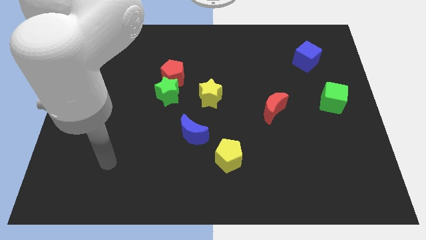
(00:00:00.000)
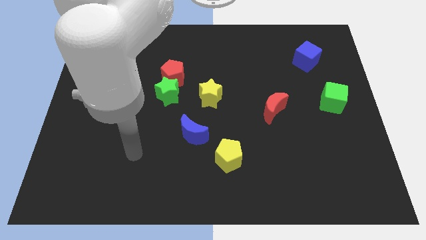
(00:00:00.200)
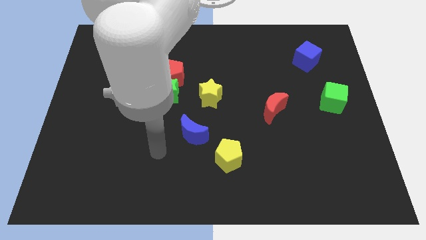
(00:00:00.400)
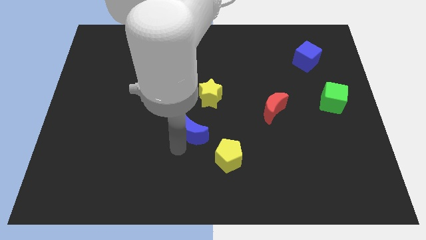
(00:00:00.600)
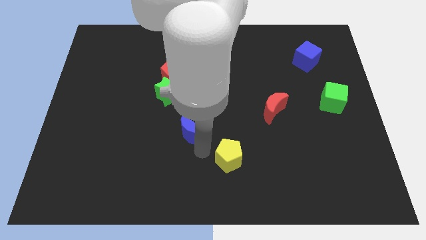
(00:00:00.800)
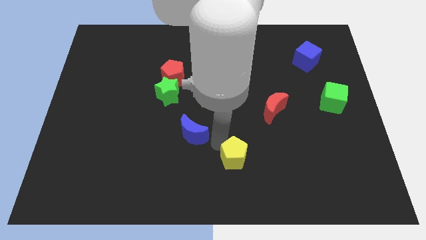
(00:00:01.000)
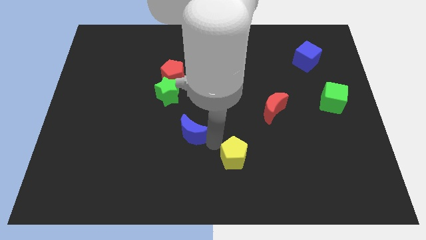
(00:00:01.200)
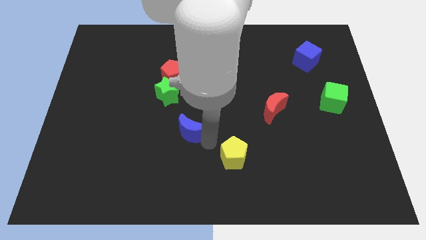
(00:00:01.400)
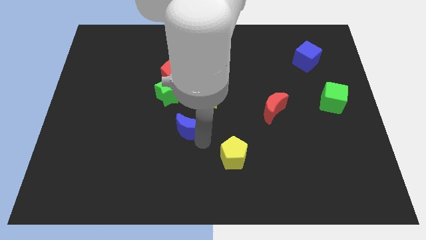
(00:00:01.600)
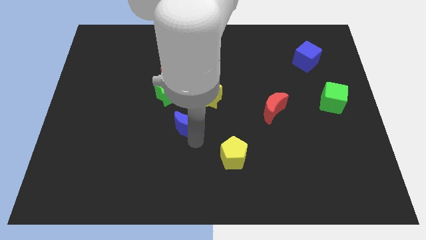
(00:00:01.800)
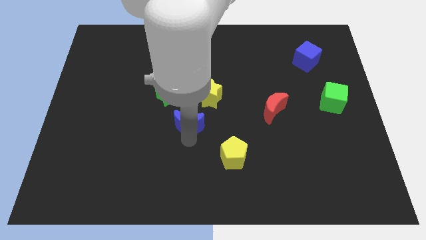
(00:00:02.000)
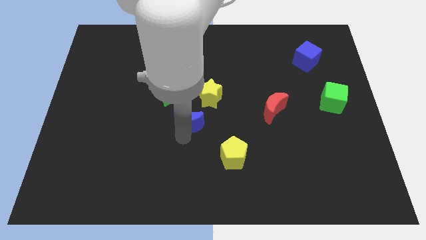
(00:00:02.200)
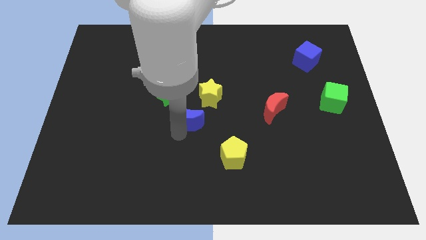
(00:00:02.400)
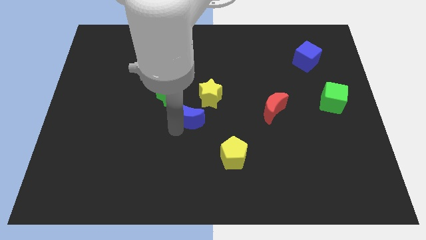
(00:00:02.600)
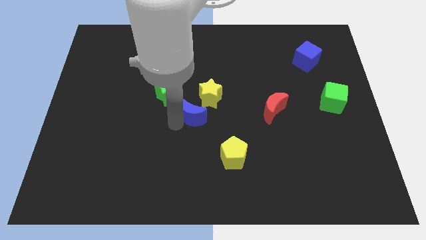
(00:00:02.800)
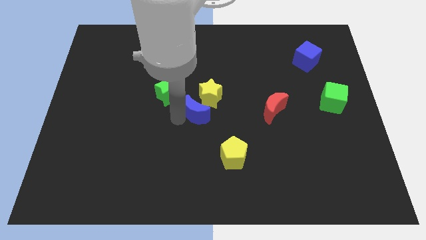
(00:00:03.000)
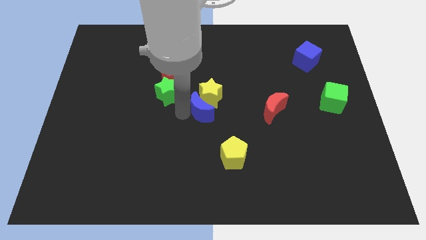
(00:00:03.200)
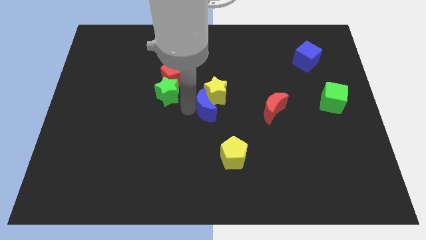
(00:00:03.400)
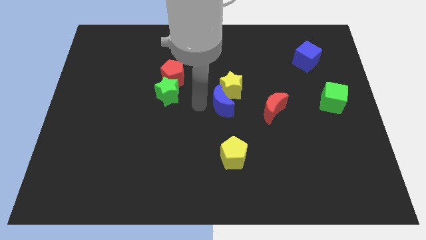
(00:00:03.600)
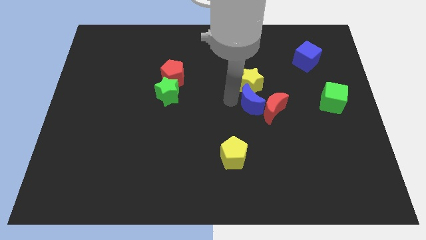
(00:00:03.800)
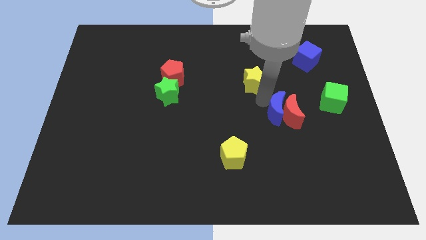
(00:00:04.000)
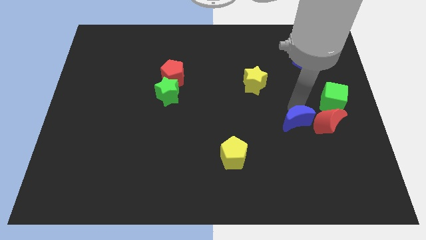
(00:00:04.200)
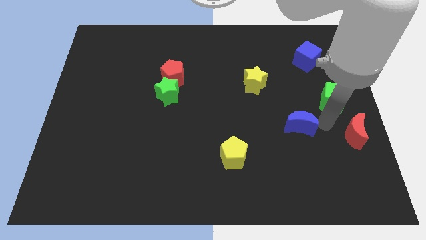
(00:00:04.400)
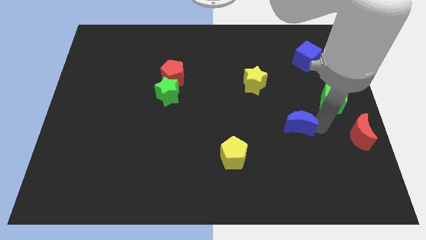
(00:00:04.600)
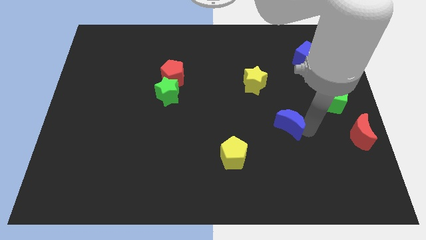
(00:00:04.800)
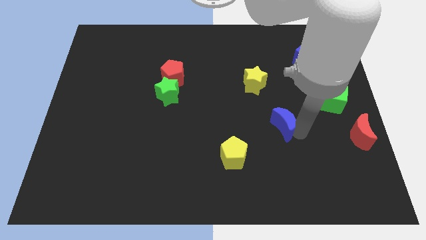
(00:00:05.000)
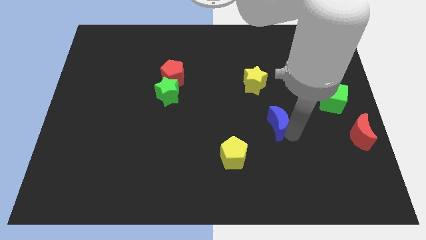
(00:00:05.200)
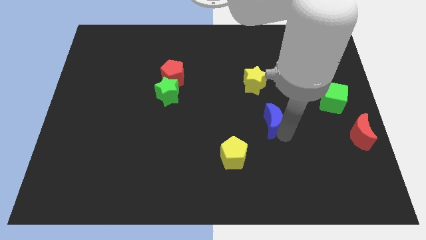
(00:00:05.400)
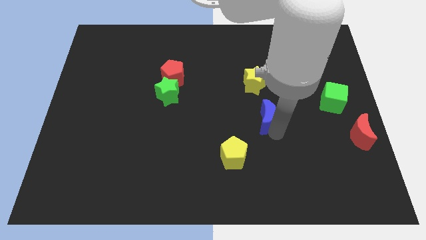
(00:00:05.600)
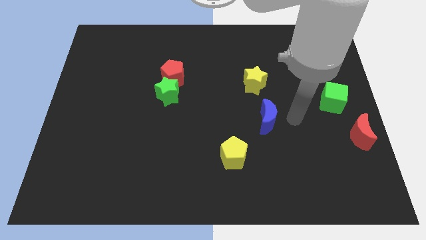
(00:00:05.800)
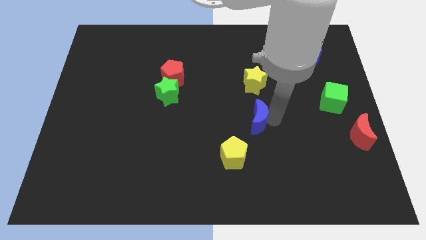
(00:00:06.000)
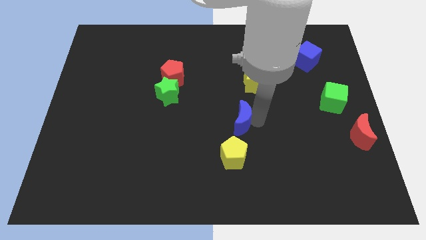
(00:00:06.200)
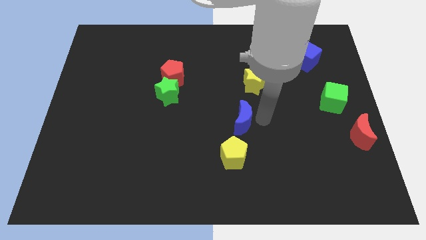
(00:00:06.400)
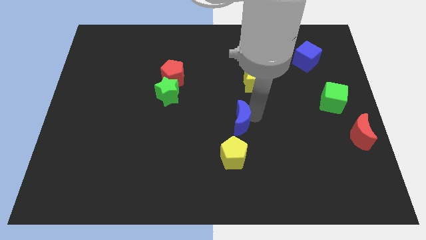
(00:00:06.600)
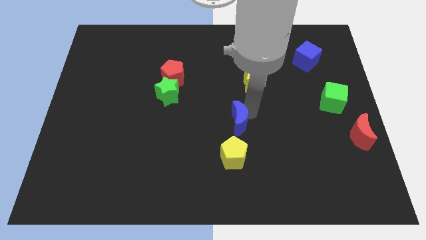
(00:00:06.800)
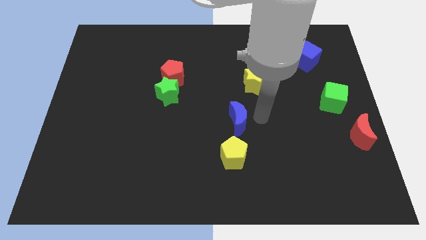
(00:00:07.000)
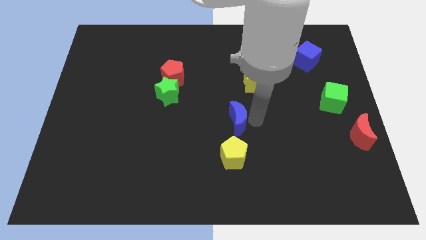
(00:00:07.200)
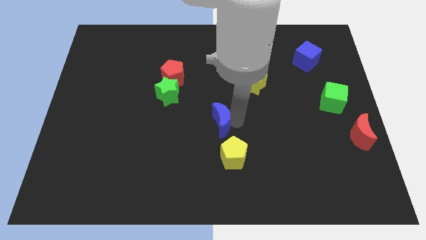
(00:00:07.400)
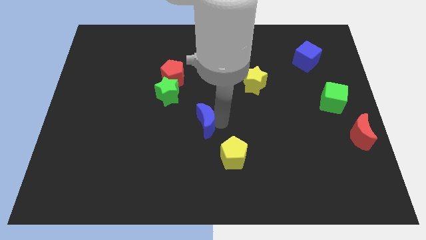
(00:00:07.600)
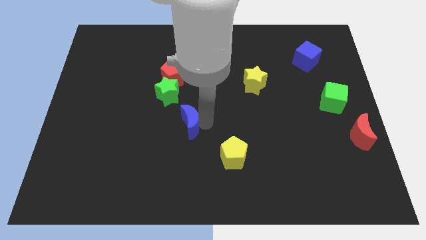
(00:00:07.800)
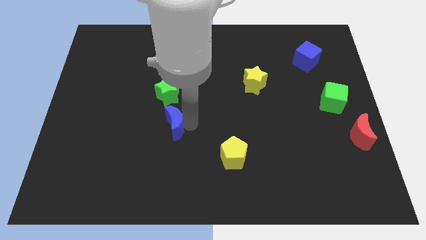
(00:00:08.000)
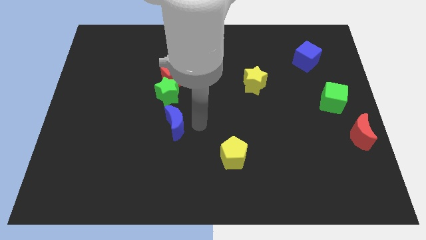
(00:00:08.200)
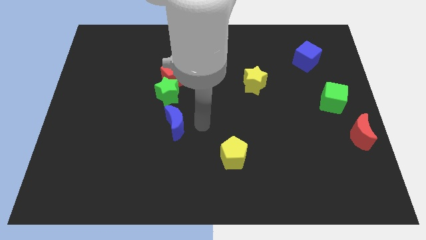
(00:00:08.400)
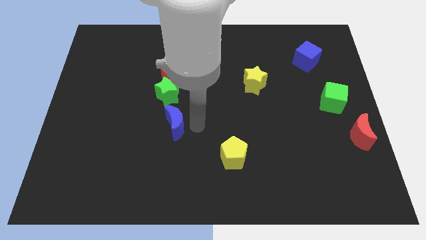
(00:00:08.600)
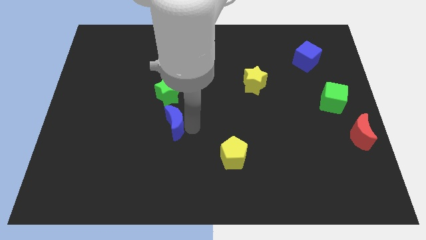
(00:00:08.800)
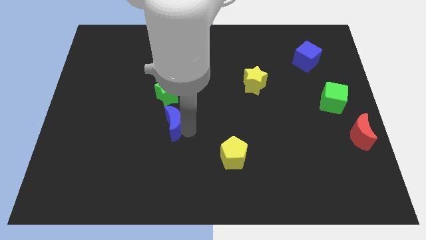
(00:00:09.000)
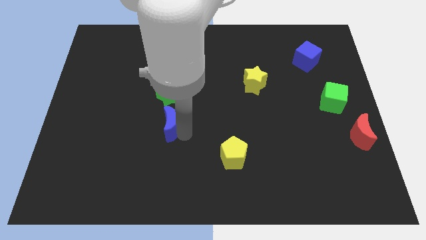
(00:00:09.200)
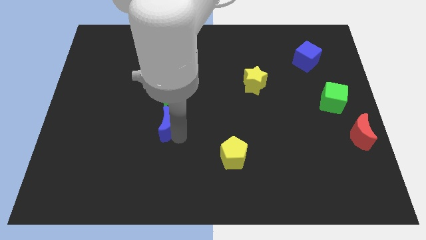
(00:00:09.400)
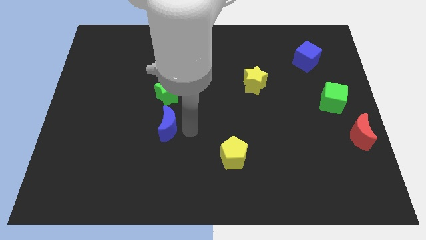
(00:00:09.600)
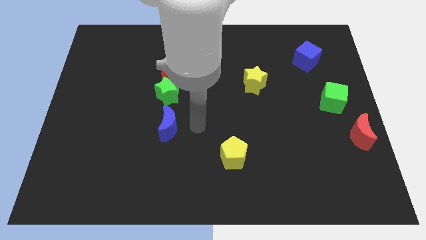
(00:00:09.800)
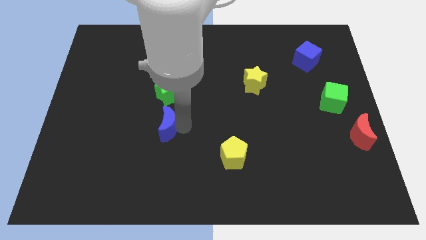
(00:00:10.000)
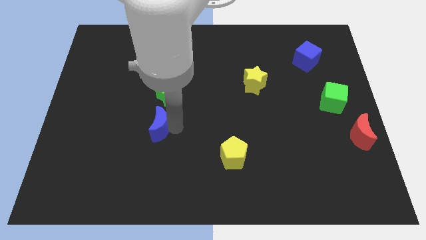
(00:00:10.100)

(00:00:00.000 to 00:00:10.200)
slide the blue moon to the left a little bit

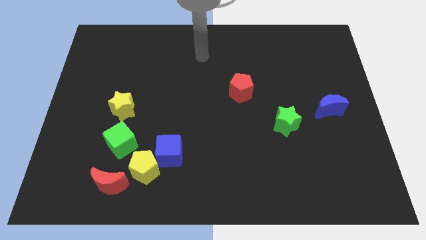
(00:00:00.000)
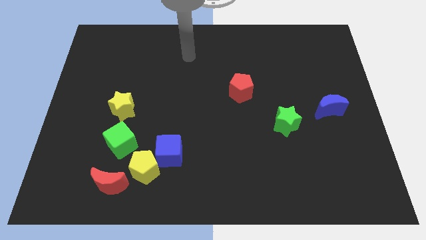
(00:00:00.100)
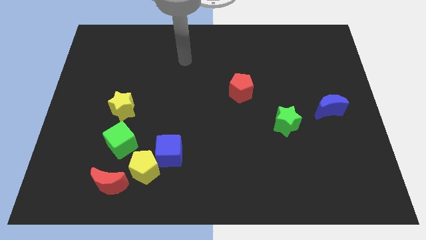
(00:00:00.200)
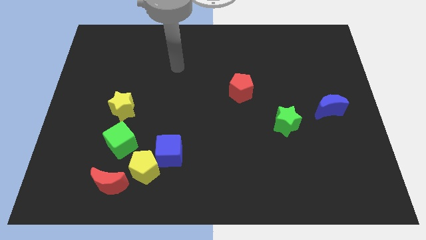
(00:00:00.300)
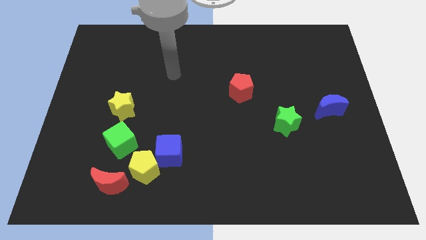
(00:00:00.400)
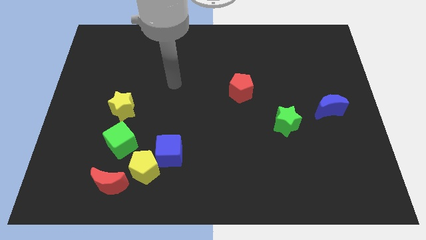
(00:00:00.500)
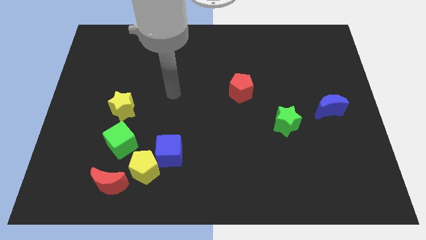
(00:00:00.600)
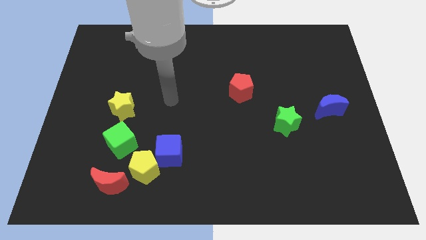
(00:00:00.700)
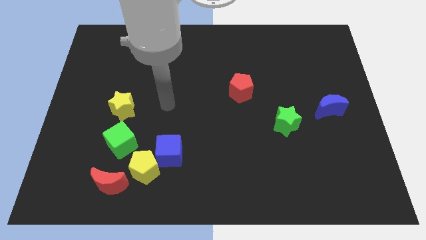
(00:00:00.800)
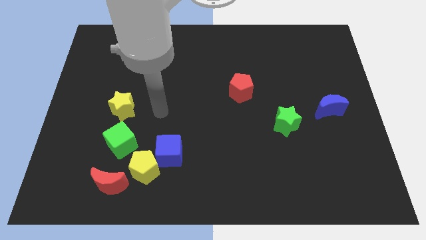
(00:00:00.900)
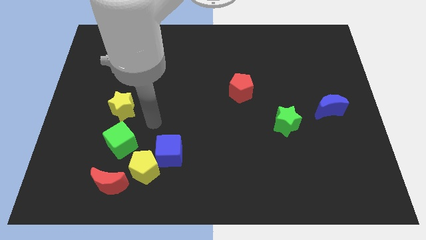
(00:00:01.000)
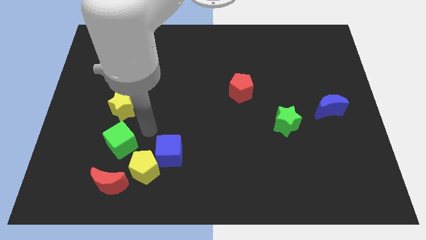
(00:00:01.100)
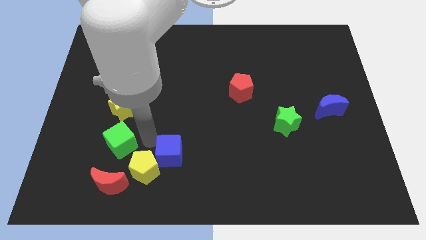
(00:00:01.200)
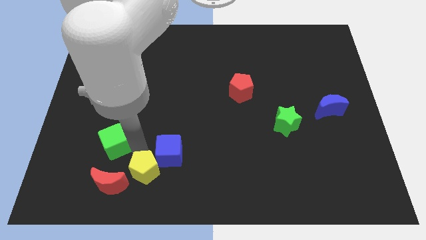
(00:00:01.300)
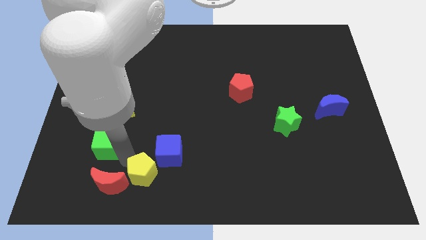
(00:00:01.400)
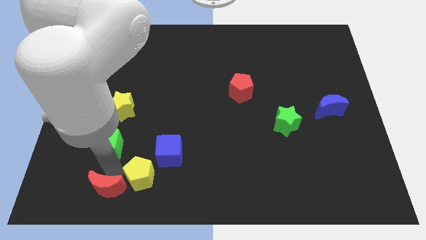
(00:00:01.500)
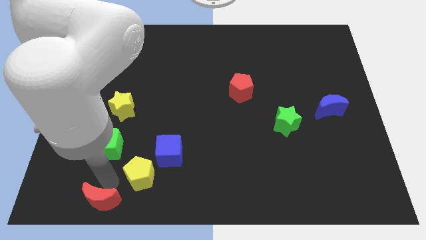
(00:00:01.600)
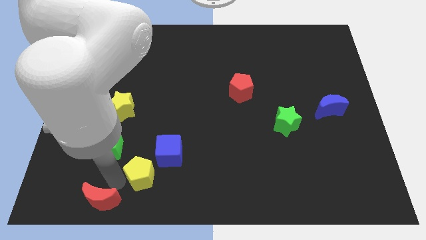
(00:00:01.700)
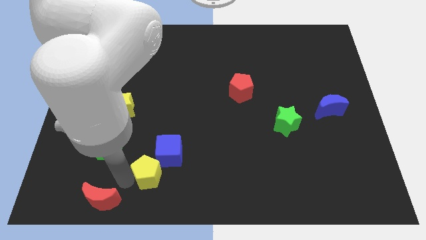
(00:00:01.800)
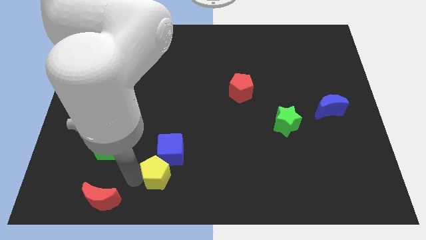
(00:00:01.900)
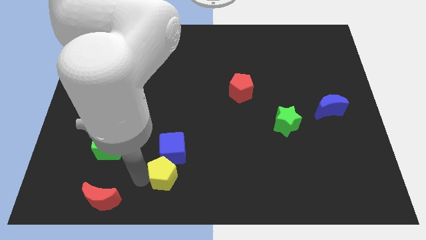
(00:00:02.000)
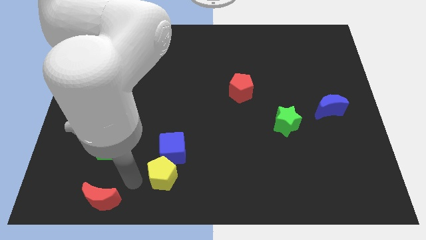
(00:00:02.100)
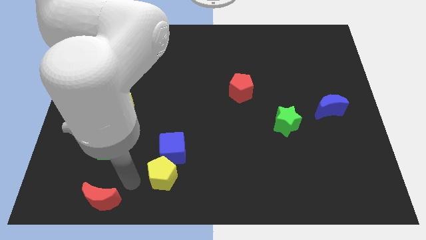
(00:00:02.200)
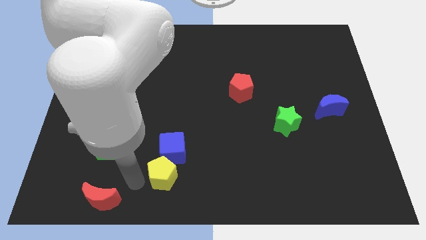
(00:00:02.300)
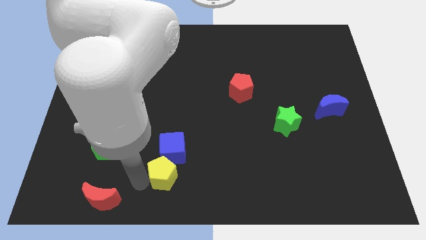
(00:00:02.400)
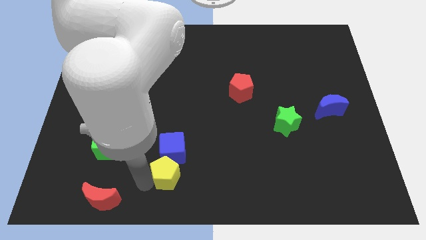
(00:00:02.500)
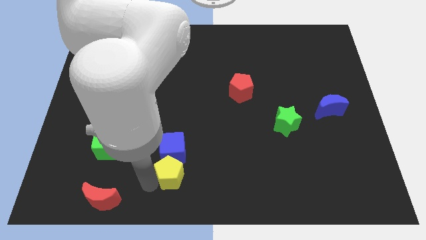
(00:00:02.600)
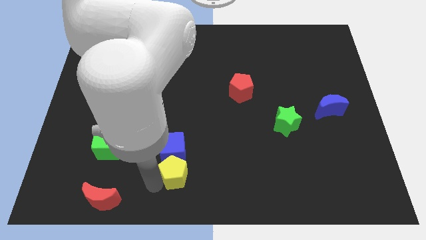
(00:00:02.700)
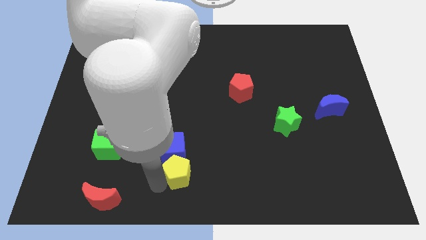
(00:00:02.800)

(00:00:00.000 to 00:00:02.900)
move the yellow pentagon right slightly
